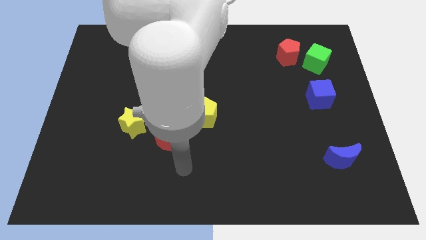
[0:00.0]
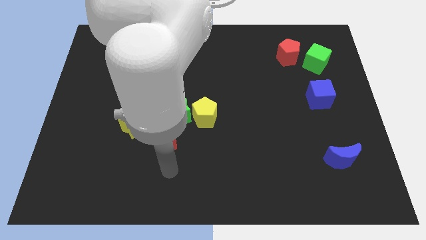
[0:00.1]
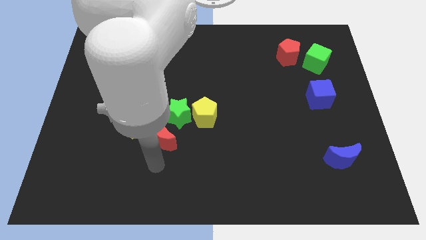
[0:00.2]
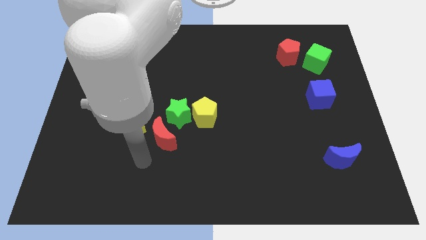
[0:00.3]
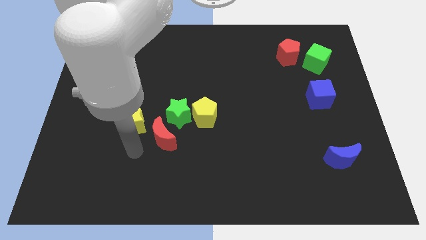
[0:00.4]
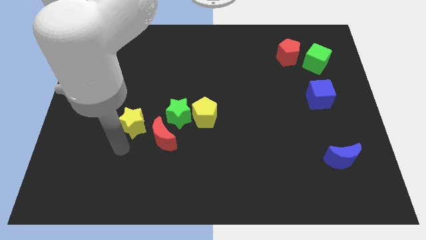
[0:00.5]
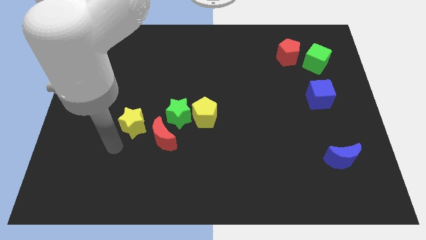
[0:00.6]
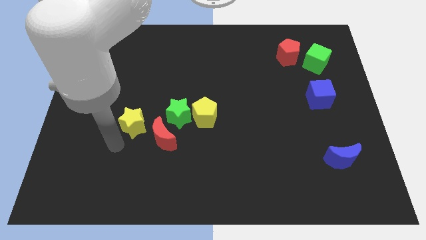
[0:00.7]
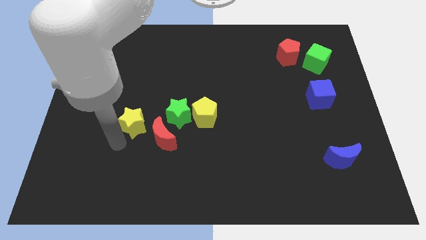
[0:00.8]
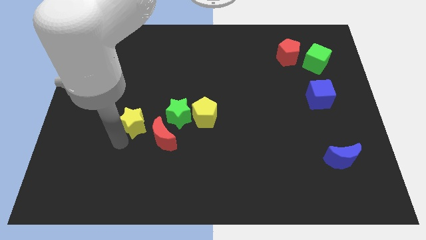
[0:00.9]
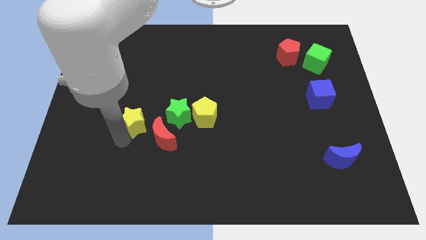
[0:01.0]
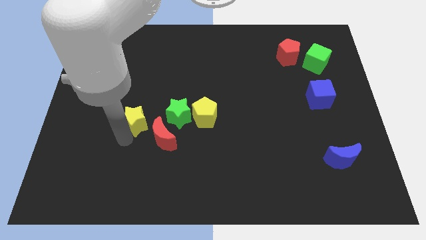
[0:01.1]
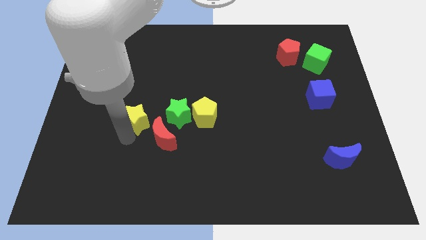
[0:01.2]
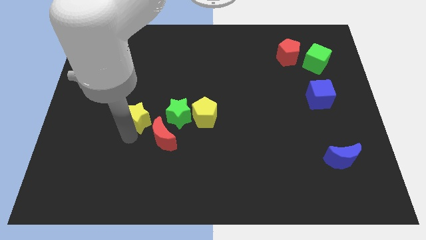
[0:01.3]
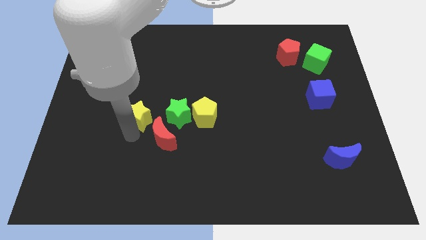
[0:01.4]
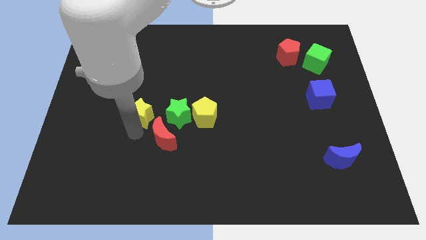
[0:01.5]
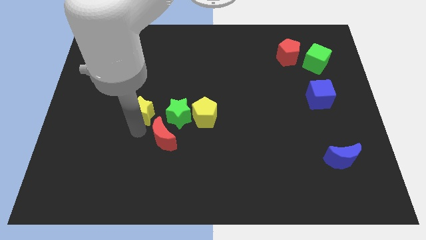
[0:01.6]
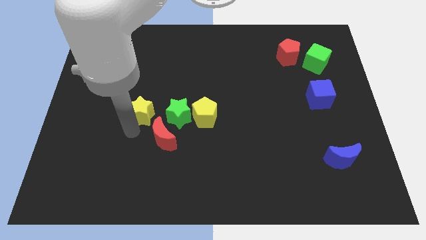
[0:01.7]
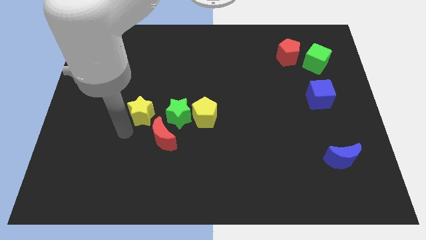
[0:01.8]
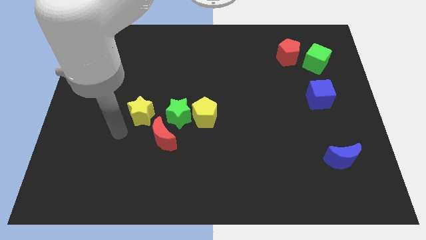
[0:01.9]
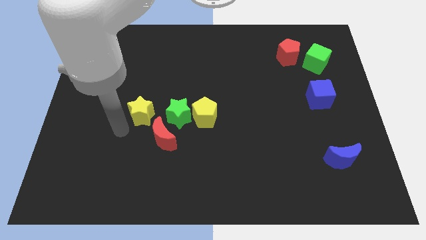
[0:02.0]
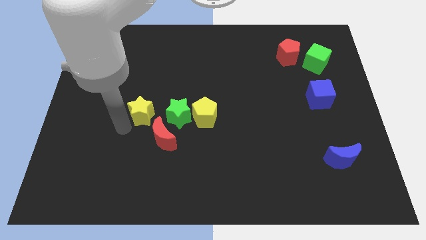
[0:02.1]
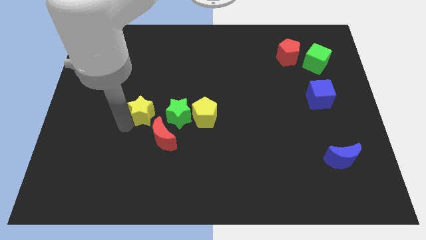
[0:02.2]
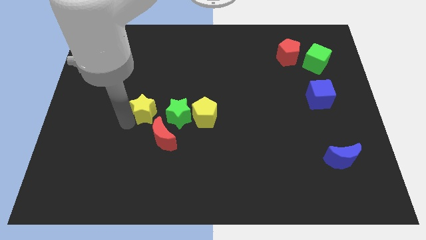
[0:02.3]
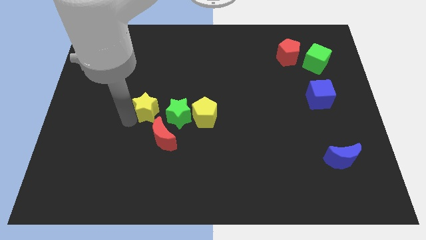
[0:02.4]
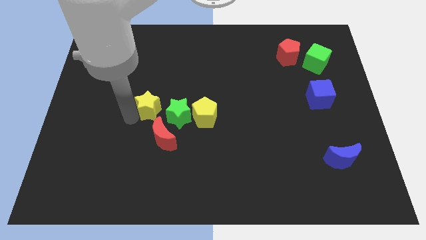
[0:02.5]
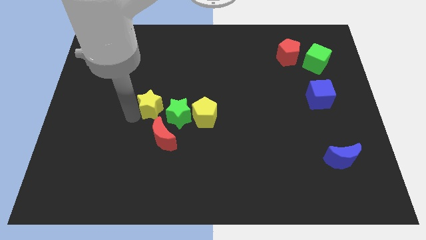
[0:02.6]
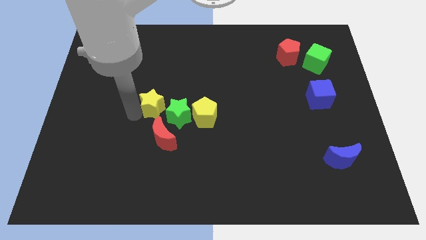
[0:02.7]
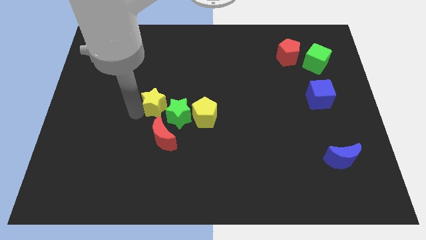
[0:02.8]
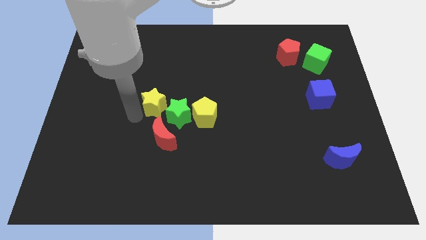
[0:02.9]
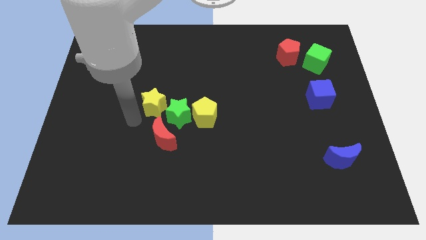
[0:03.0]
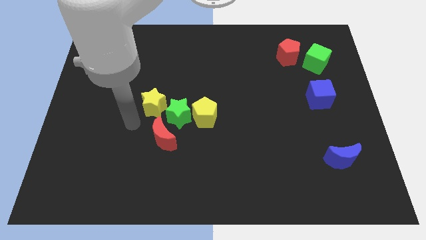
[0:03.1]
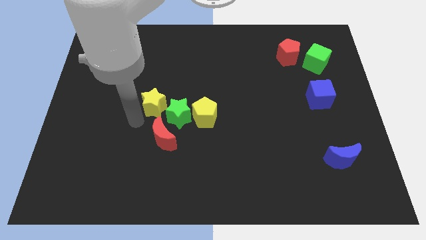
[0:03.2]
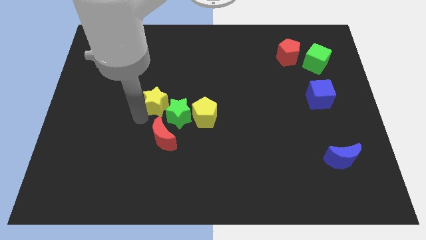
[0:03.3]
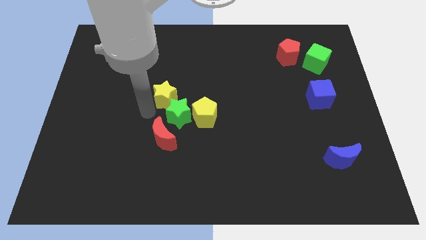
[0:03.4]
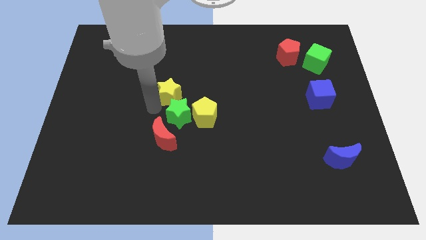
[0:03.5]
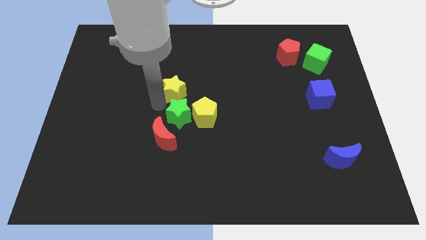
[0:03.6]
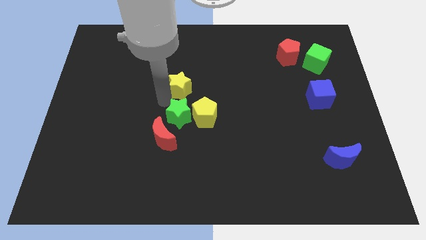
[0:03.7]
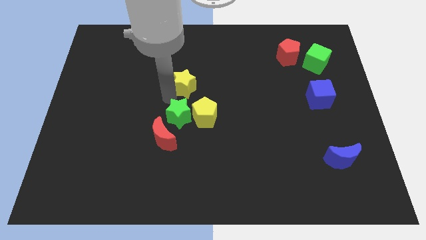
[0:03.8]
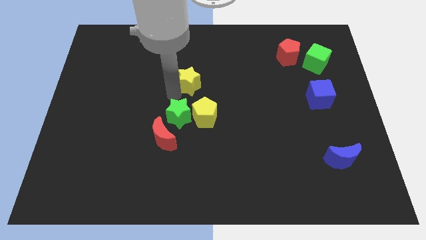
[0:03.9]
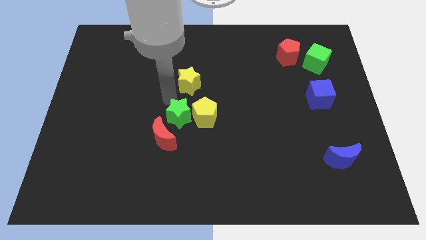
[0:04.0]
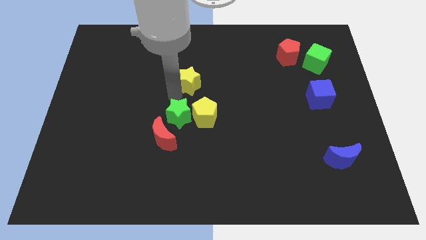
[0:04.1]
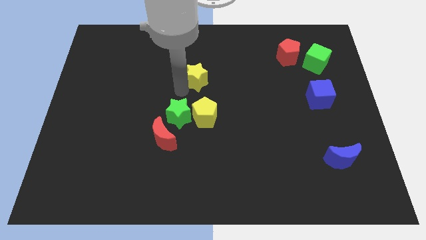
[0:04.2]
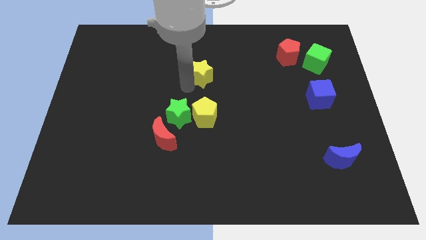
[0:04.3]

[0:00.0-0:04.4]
move the yellow star upwards and then to the right

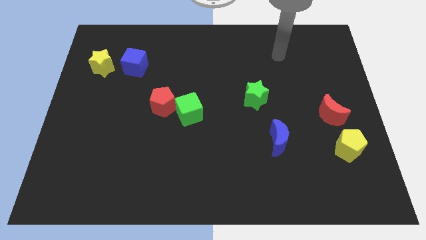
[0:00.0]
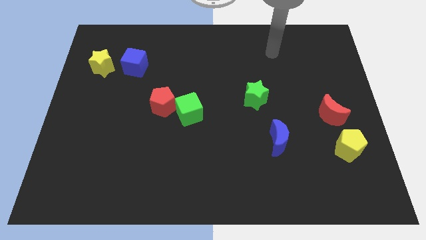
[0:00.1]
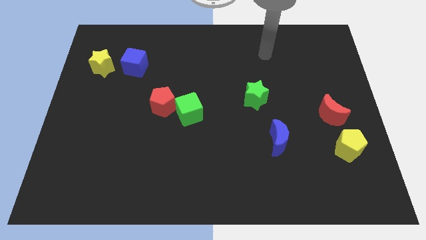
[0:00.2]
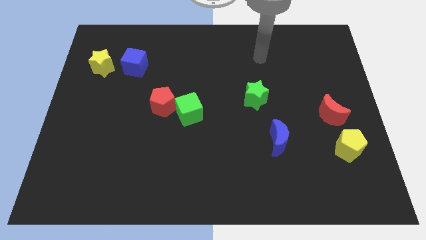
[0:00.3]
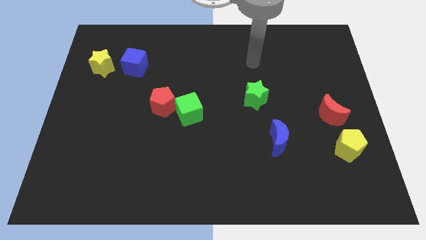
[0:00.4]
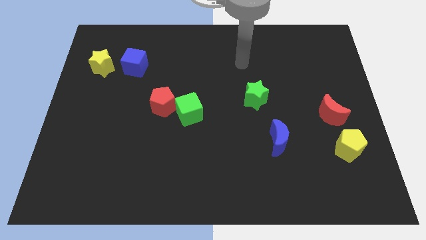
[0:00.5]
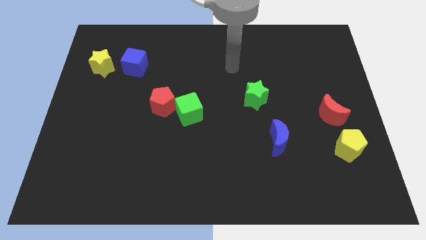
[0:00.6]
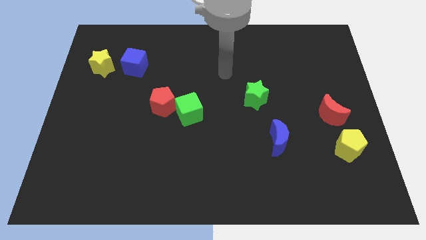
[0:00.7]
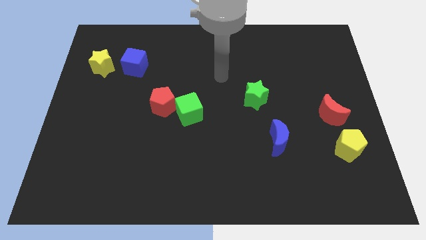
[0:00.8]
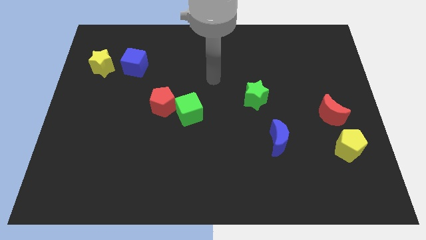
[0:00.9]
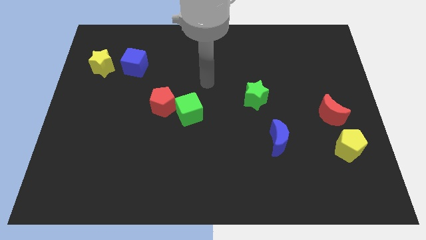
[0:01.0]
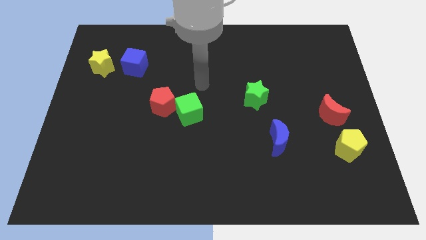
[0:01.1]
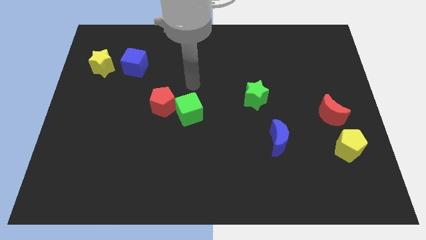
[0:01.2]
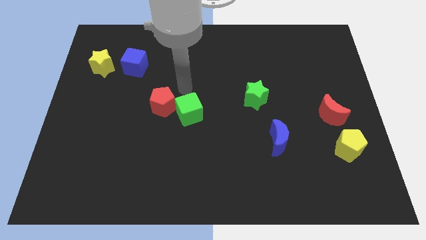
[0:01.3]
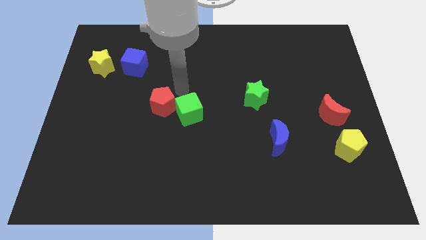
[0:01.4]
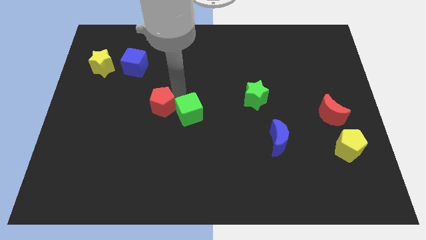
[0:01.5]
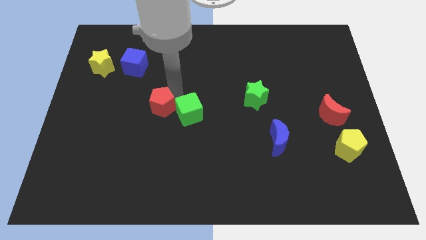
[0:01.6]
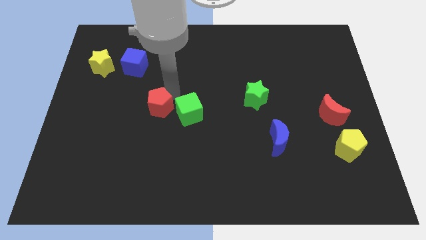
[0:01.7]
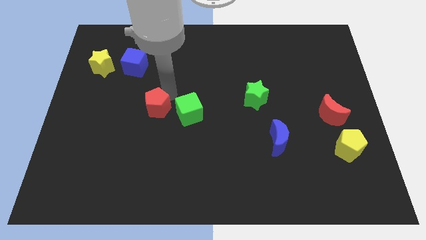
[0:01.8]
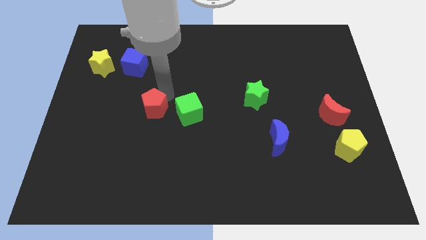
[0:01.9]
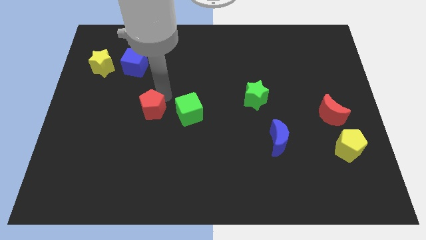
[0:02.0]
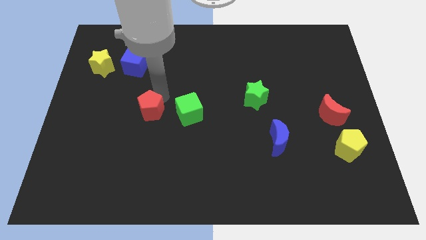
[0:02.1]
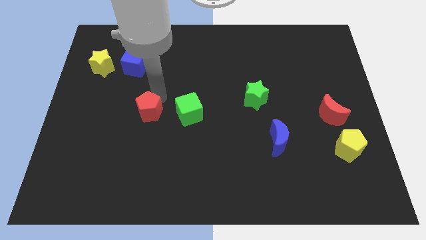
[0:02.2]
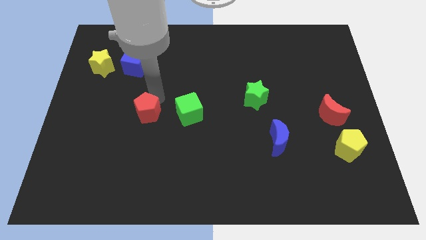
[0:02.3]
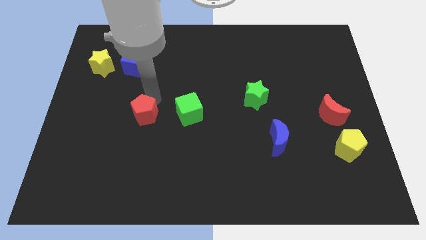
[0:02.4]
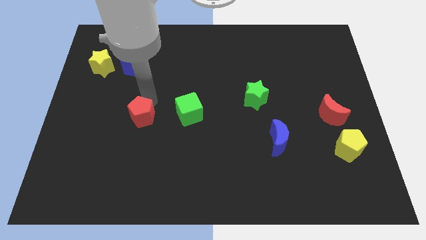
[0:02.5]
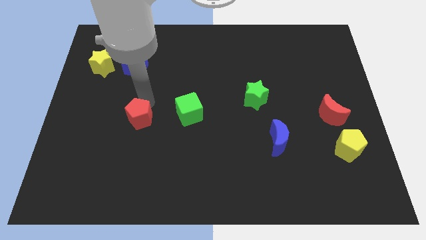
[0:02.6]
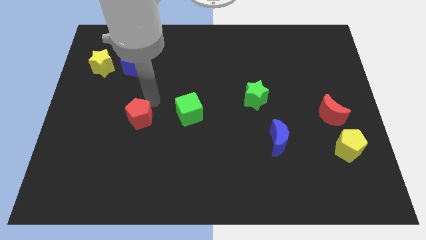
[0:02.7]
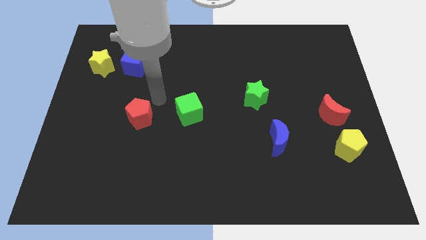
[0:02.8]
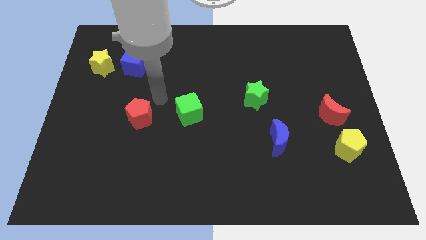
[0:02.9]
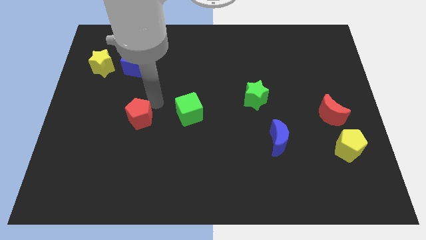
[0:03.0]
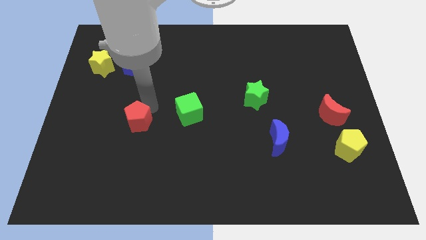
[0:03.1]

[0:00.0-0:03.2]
move the red pentagon a bit down and then to the left

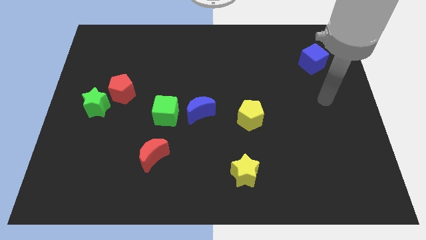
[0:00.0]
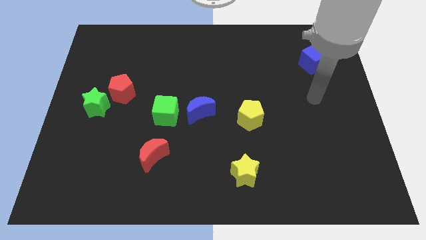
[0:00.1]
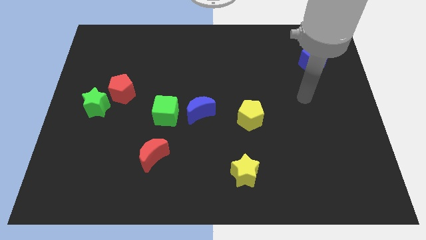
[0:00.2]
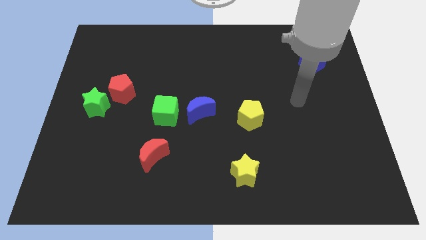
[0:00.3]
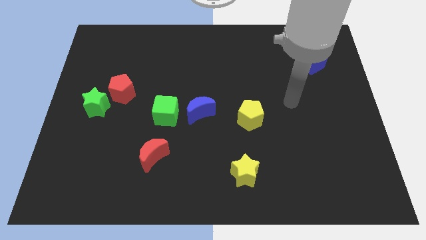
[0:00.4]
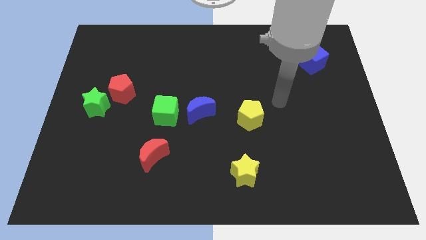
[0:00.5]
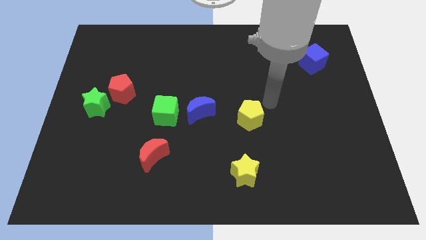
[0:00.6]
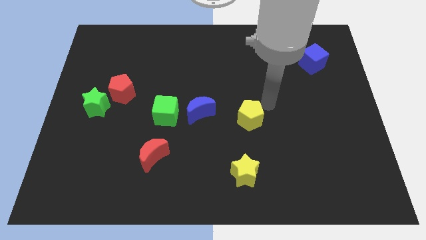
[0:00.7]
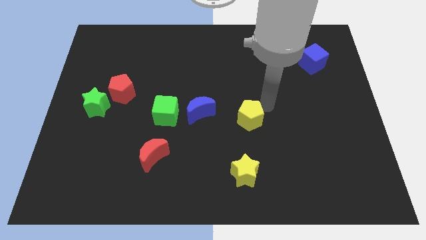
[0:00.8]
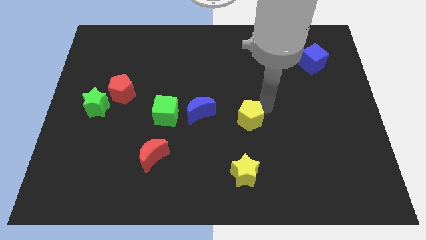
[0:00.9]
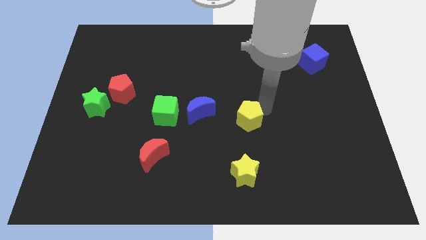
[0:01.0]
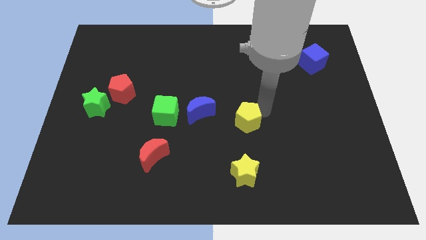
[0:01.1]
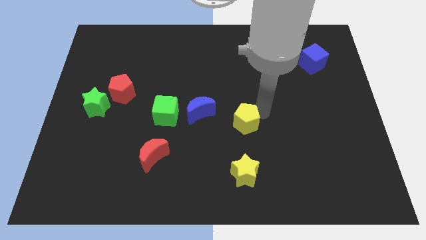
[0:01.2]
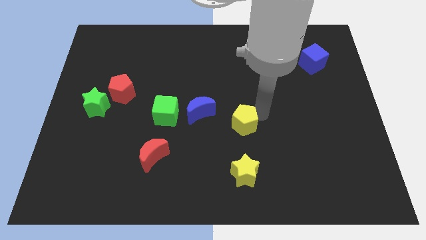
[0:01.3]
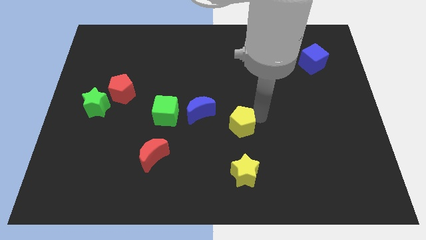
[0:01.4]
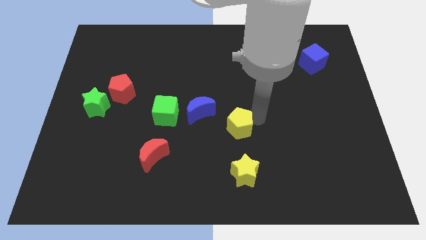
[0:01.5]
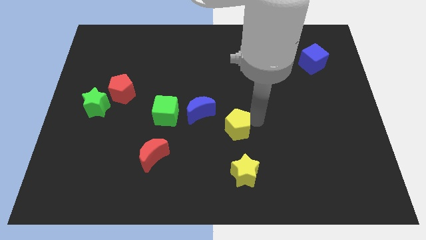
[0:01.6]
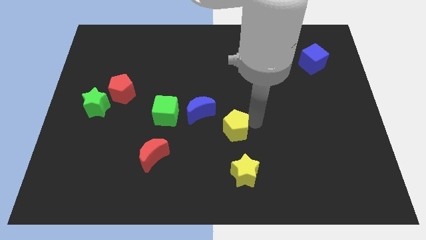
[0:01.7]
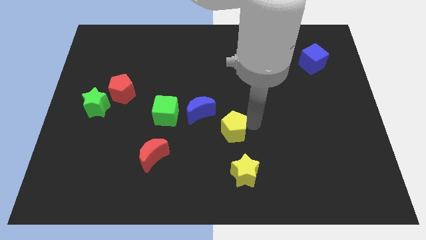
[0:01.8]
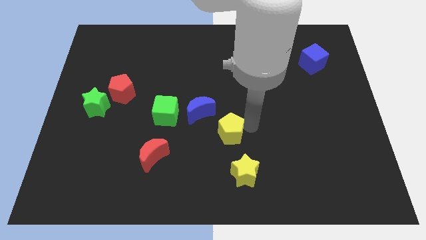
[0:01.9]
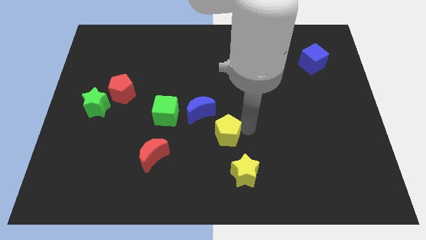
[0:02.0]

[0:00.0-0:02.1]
slide the yellow pentagon down and to the left diagonally a little bit
